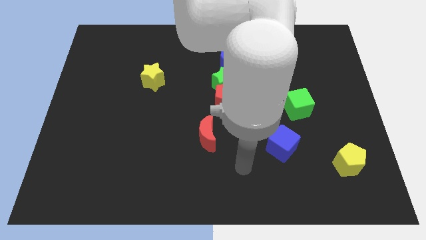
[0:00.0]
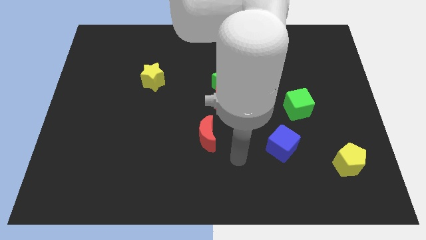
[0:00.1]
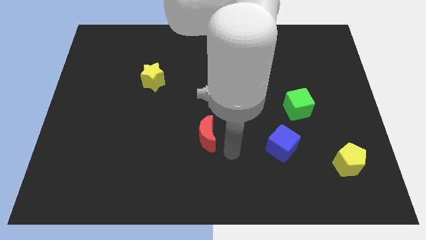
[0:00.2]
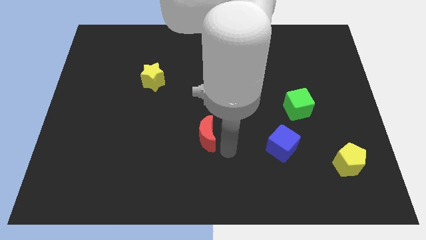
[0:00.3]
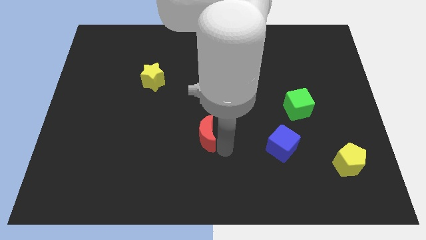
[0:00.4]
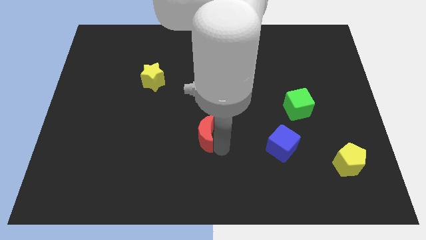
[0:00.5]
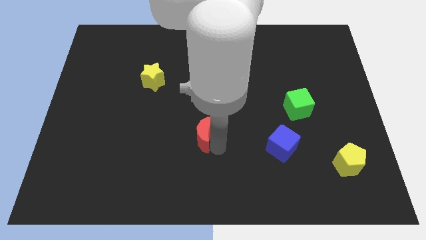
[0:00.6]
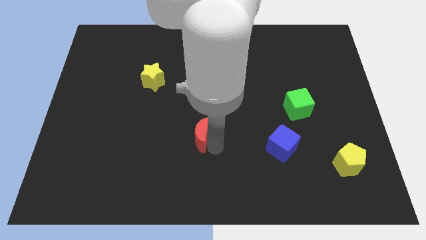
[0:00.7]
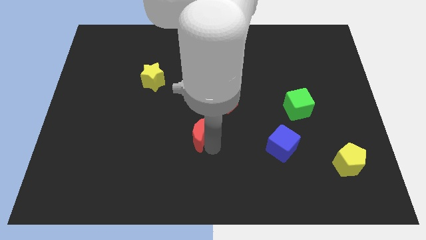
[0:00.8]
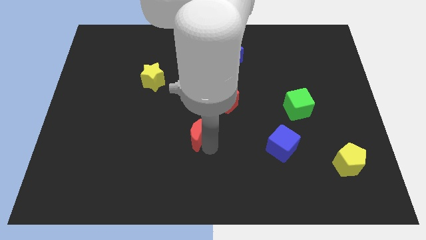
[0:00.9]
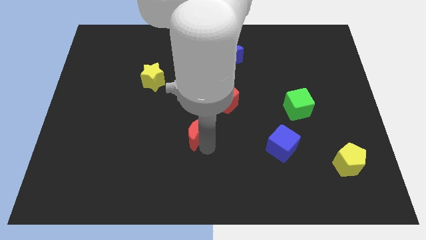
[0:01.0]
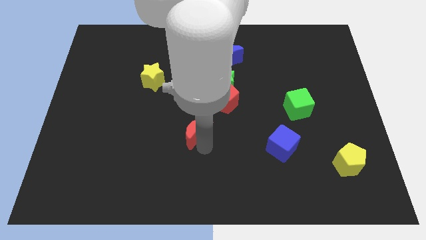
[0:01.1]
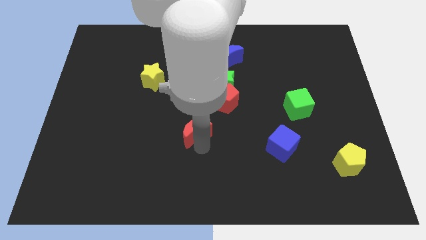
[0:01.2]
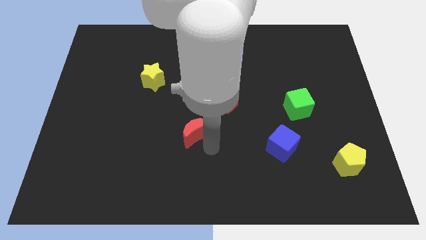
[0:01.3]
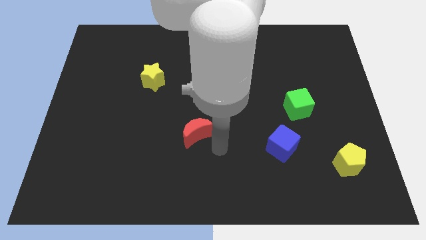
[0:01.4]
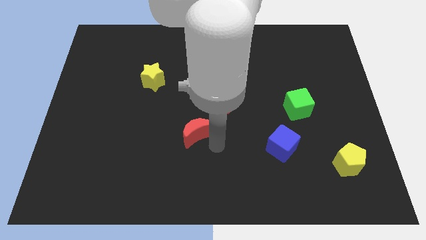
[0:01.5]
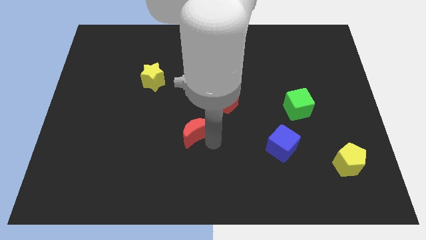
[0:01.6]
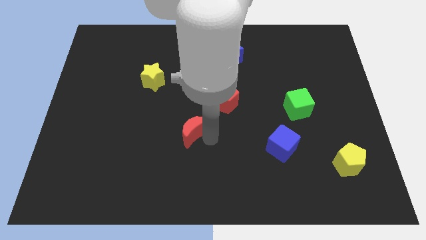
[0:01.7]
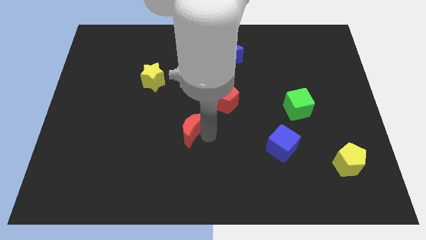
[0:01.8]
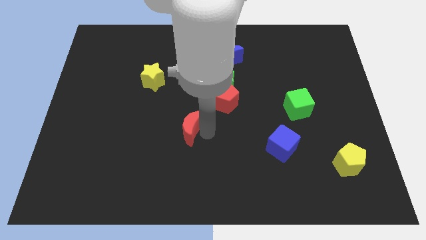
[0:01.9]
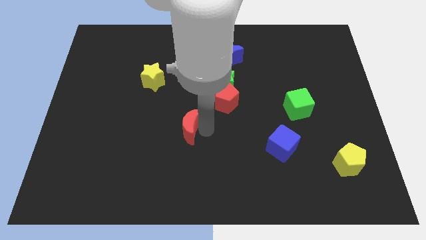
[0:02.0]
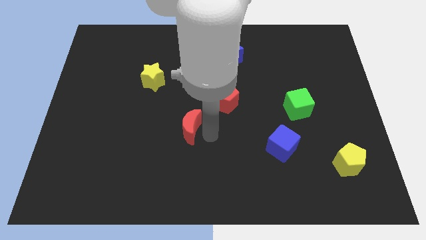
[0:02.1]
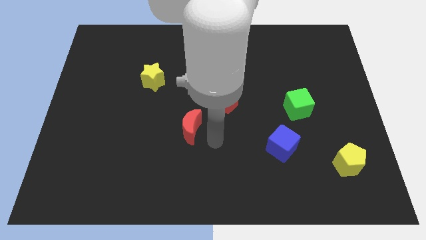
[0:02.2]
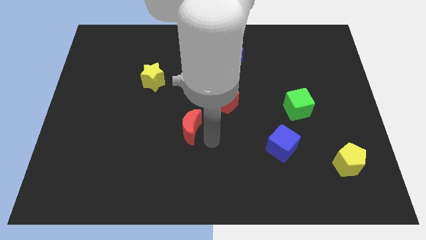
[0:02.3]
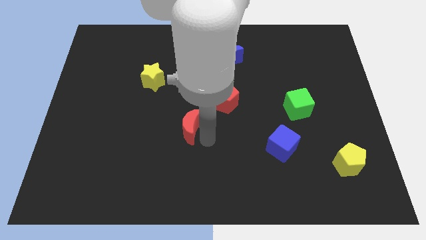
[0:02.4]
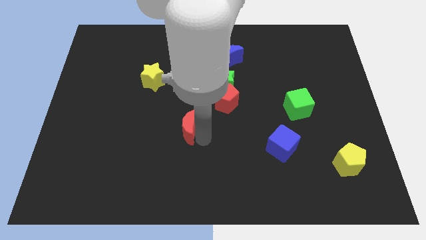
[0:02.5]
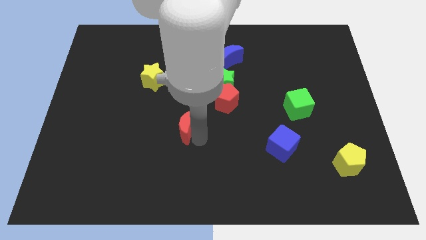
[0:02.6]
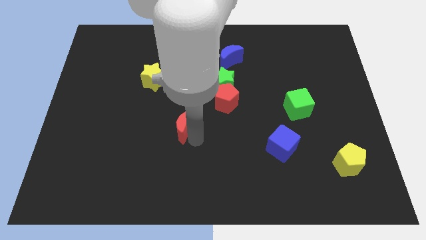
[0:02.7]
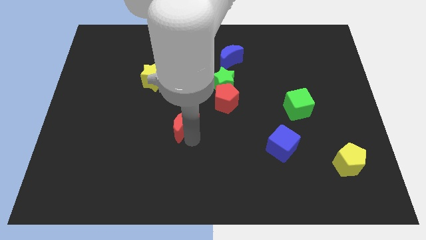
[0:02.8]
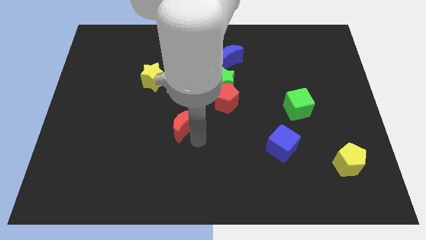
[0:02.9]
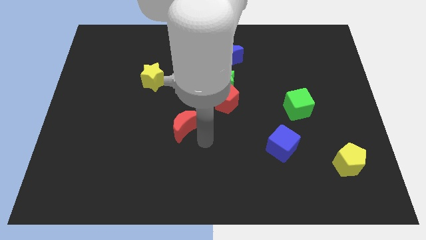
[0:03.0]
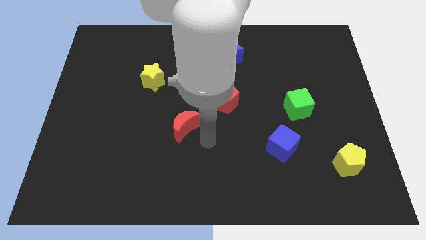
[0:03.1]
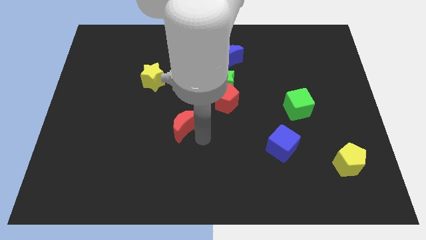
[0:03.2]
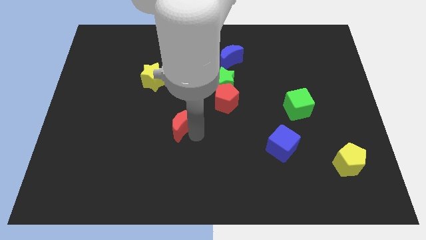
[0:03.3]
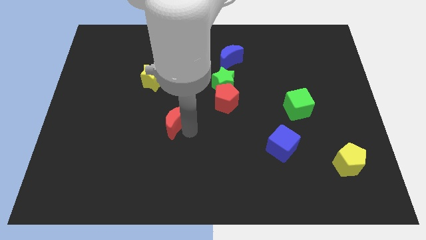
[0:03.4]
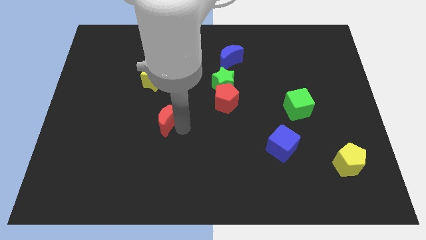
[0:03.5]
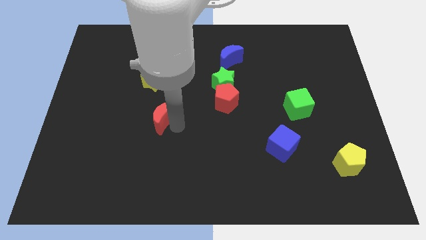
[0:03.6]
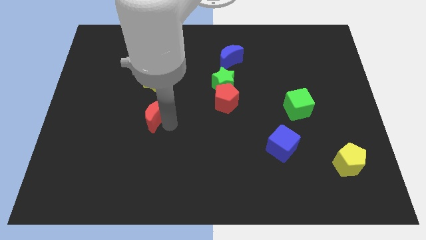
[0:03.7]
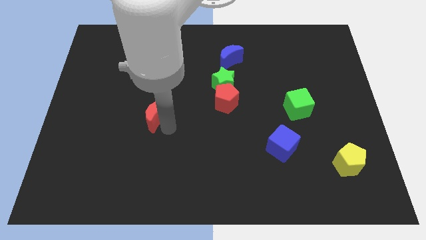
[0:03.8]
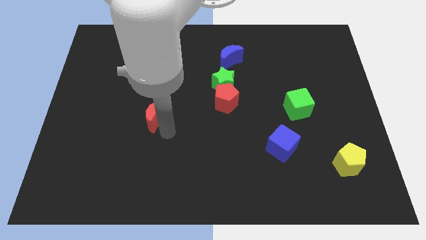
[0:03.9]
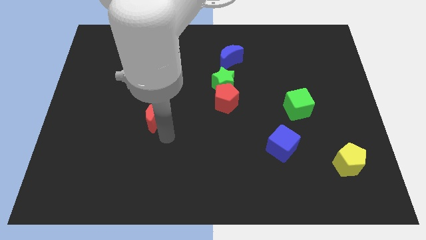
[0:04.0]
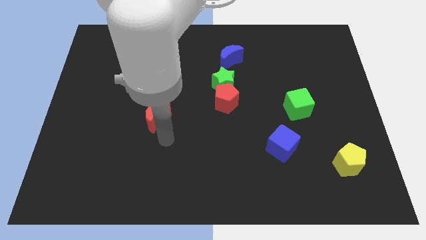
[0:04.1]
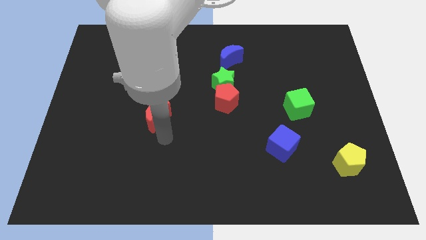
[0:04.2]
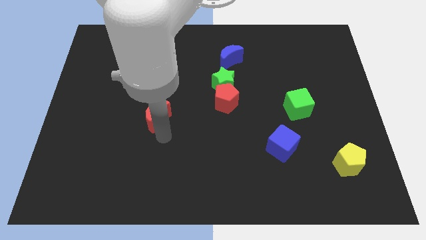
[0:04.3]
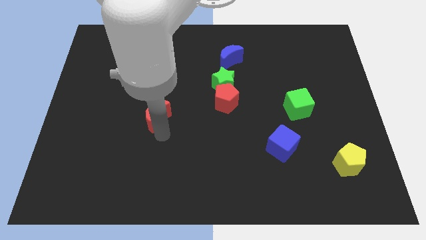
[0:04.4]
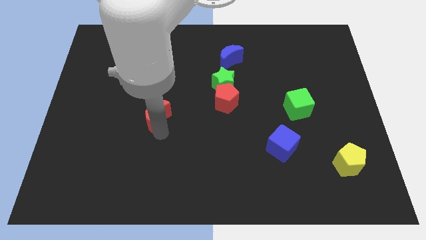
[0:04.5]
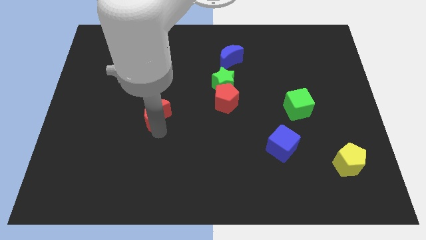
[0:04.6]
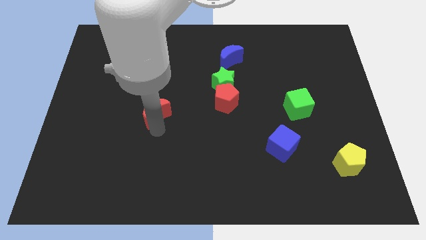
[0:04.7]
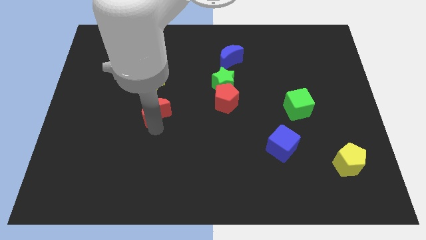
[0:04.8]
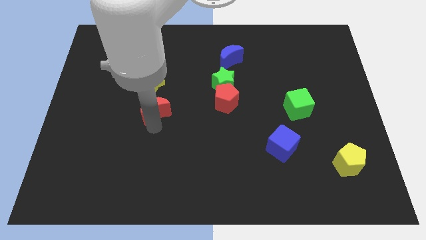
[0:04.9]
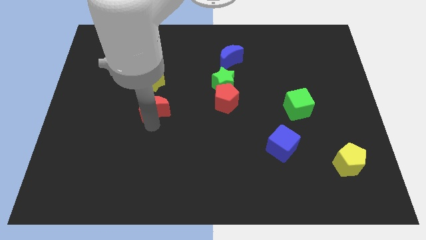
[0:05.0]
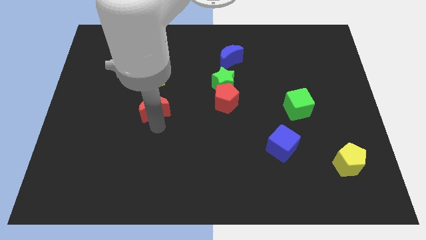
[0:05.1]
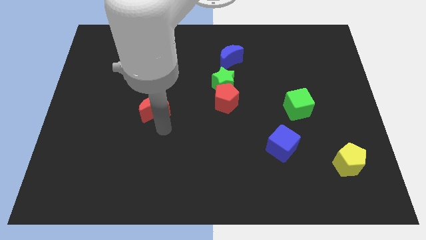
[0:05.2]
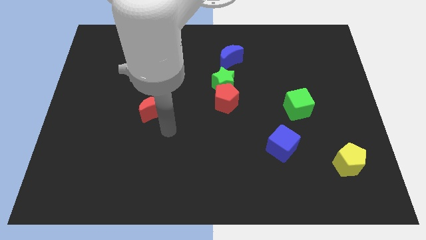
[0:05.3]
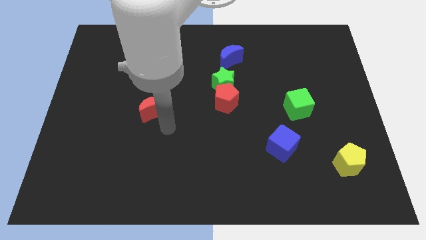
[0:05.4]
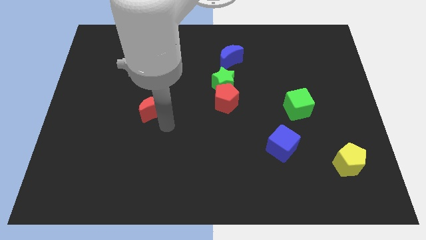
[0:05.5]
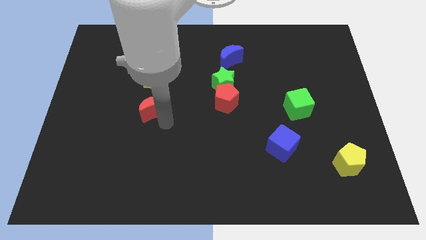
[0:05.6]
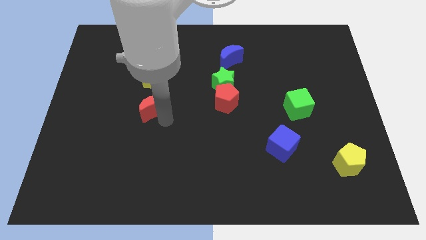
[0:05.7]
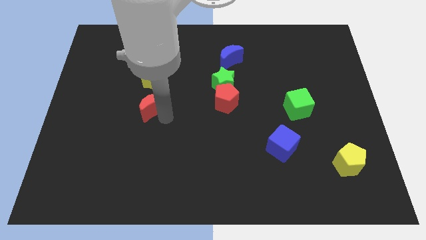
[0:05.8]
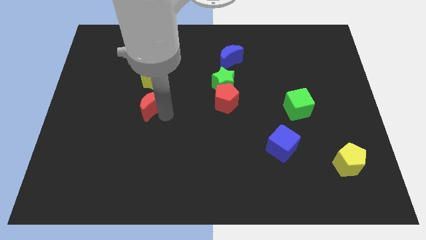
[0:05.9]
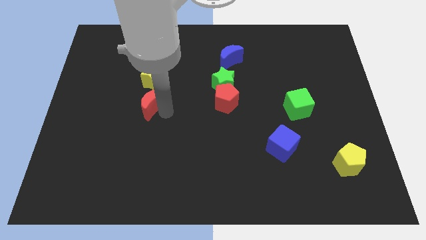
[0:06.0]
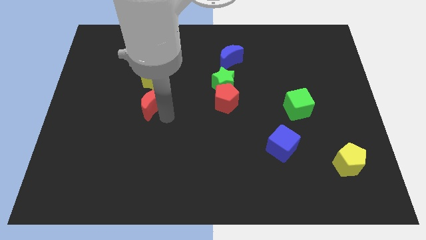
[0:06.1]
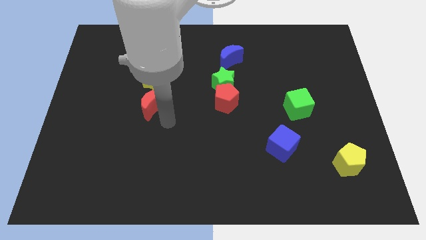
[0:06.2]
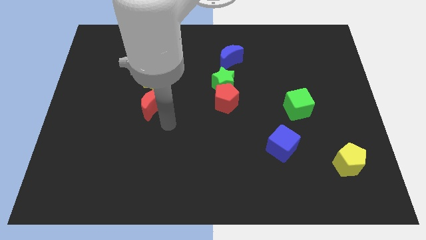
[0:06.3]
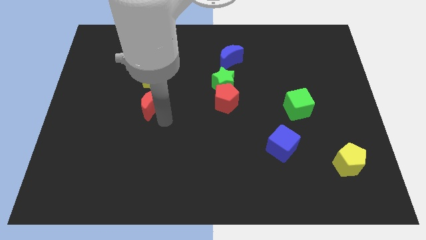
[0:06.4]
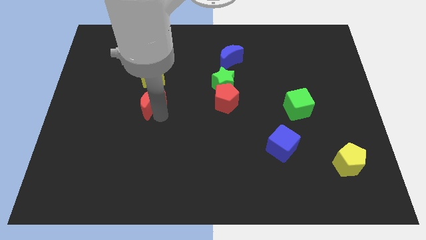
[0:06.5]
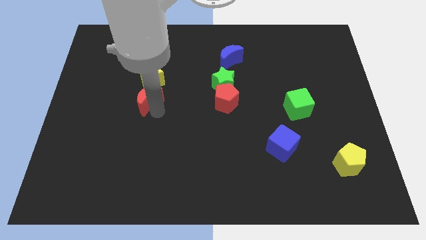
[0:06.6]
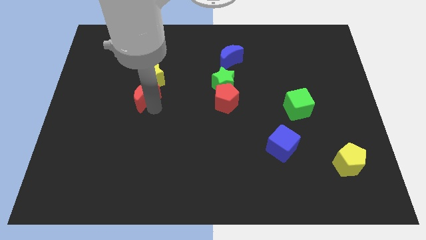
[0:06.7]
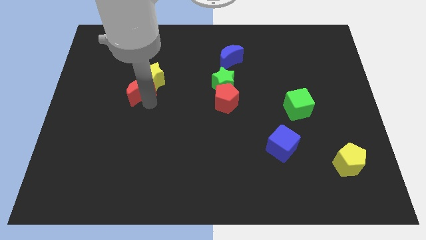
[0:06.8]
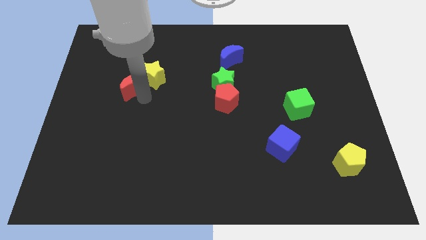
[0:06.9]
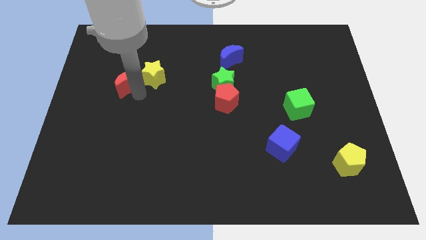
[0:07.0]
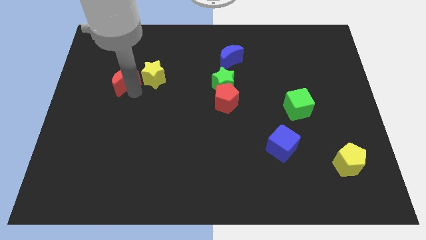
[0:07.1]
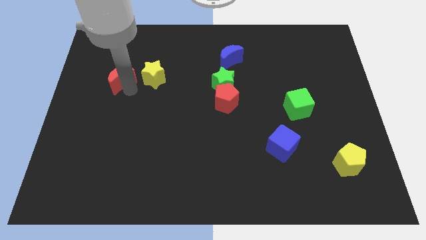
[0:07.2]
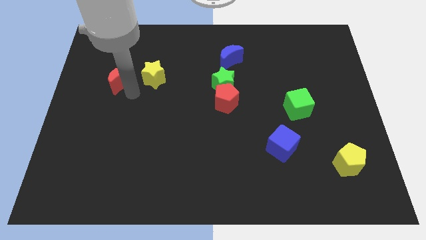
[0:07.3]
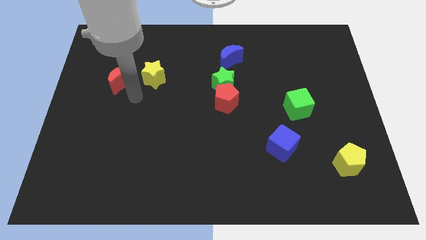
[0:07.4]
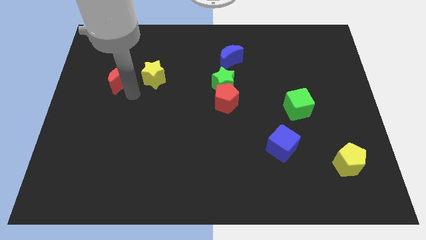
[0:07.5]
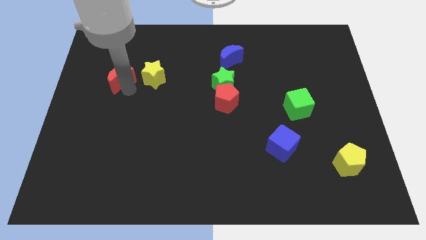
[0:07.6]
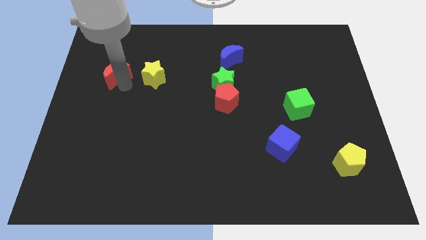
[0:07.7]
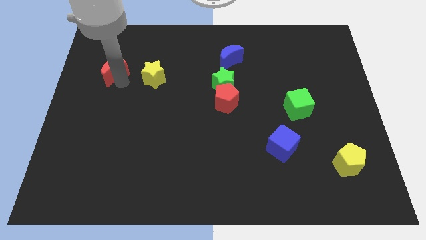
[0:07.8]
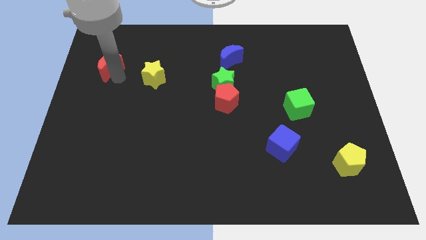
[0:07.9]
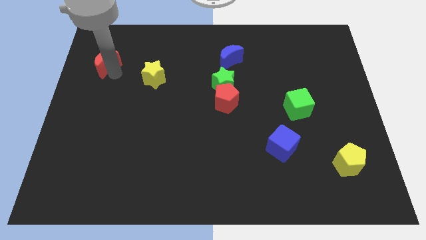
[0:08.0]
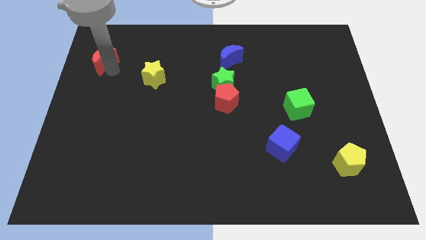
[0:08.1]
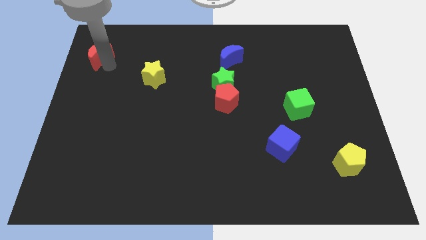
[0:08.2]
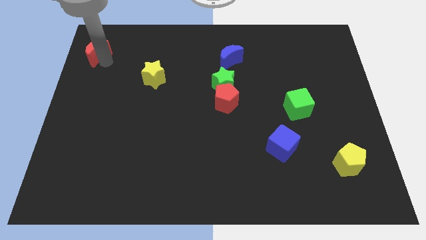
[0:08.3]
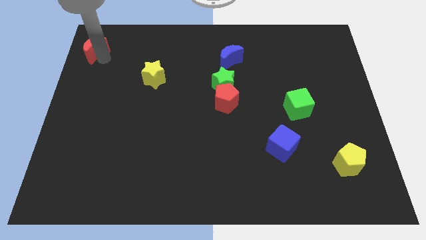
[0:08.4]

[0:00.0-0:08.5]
push the red moon to the top left of the board

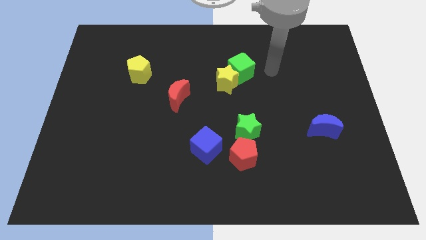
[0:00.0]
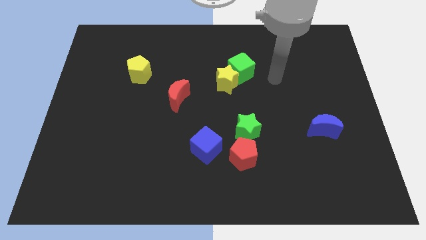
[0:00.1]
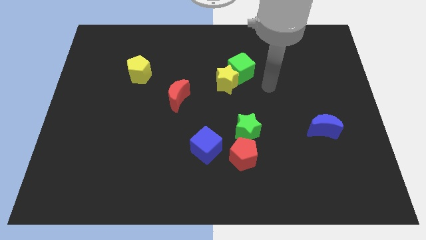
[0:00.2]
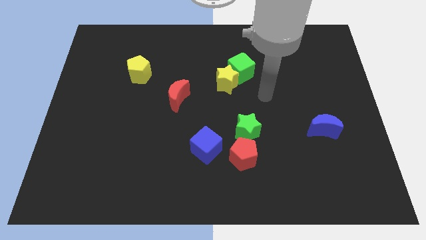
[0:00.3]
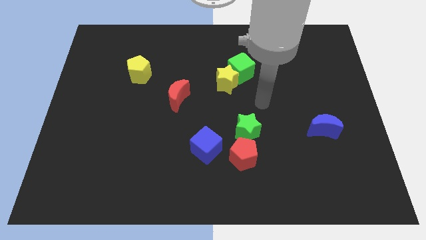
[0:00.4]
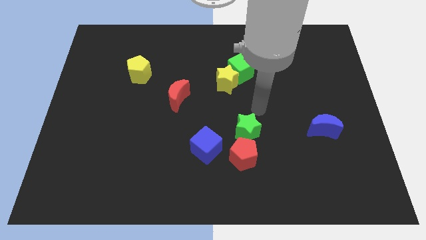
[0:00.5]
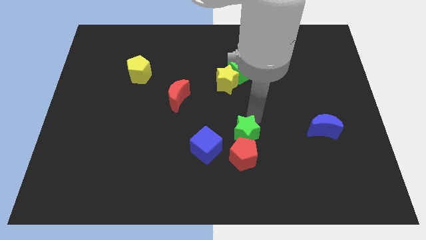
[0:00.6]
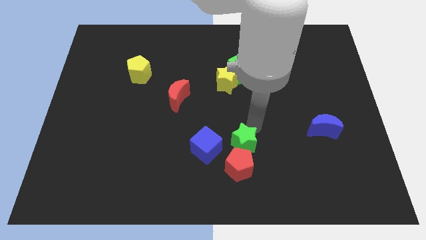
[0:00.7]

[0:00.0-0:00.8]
put the red pentagon to the bottom
